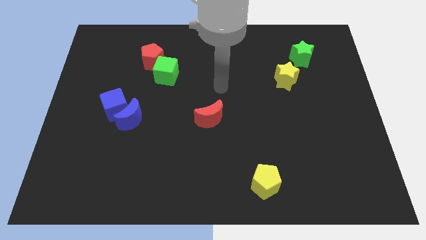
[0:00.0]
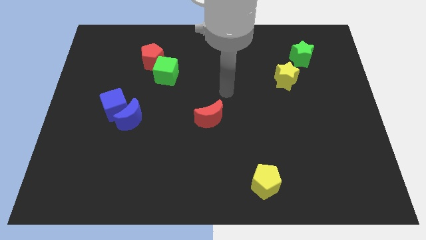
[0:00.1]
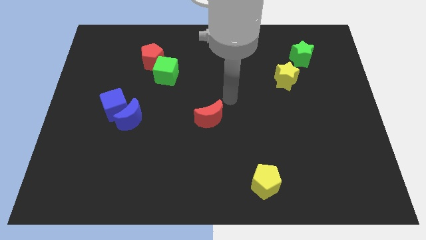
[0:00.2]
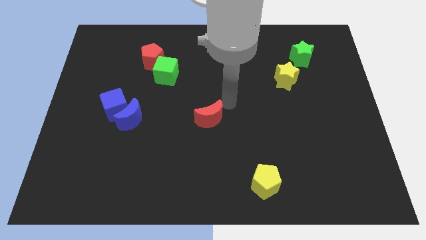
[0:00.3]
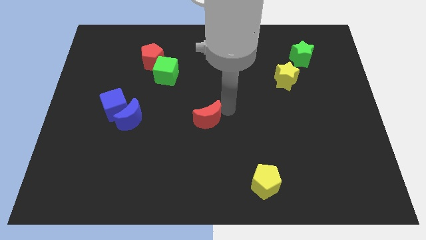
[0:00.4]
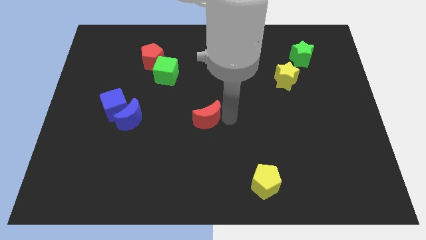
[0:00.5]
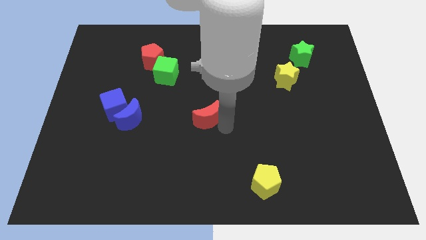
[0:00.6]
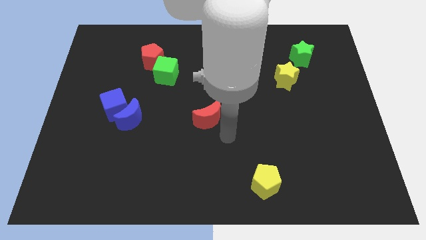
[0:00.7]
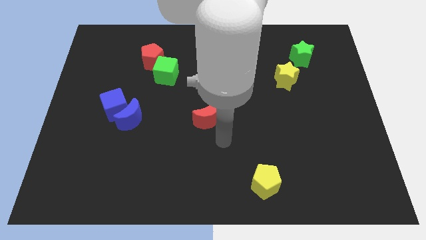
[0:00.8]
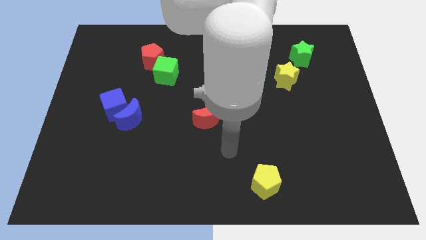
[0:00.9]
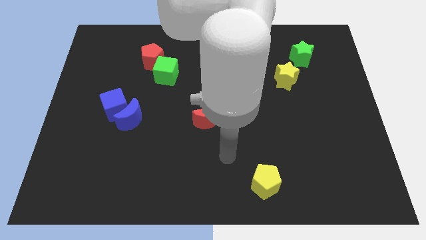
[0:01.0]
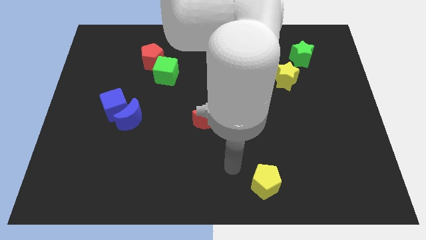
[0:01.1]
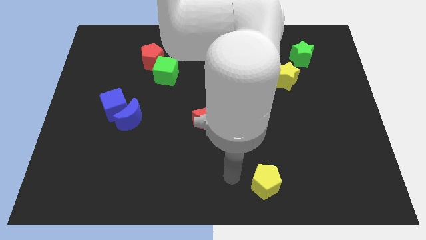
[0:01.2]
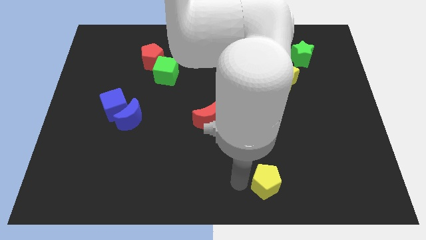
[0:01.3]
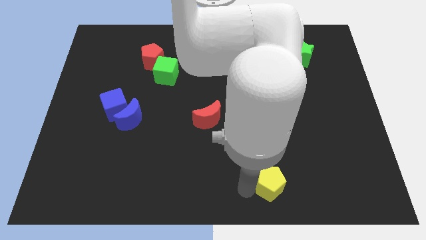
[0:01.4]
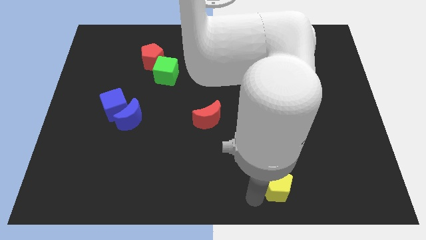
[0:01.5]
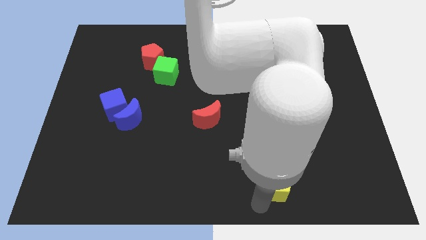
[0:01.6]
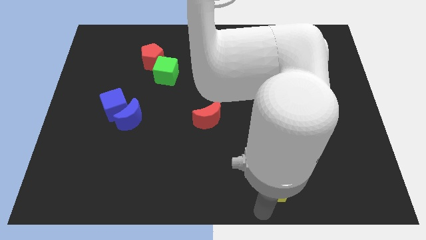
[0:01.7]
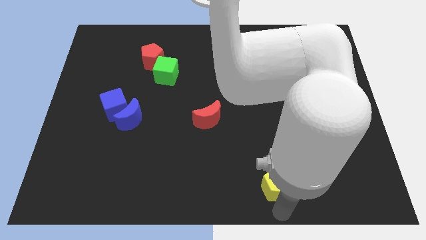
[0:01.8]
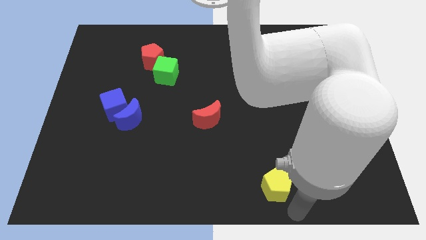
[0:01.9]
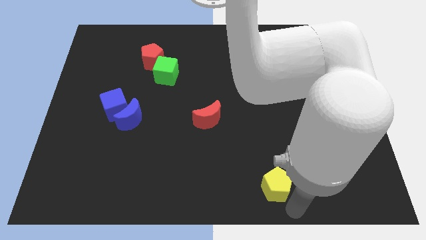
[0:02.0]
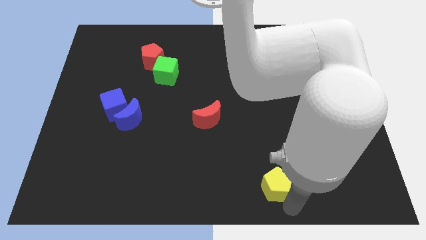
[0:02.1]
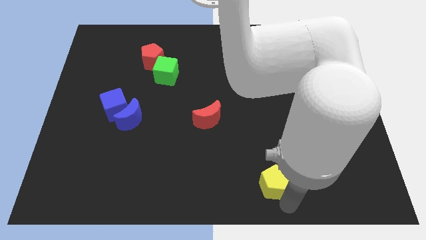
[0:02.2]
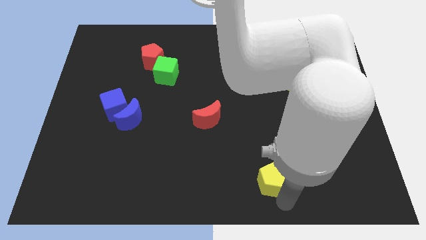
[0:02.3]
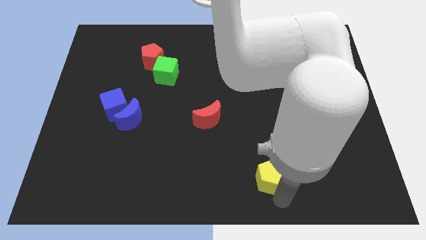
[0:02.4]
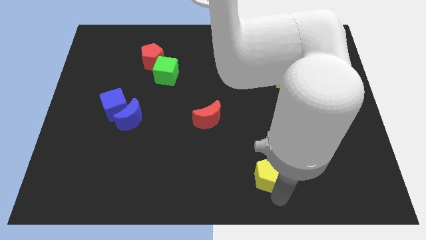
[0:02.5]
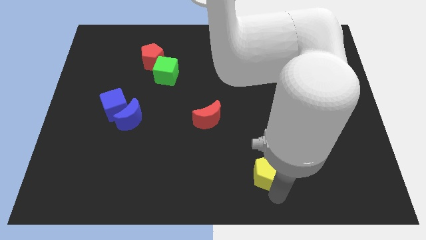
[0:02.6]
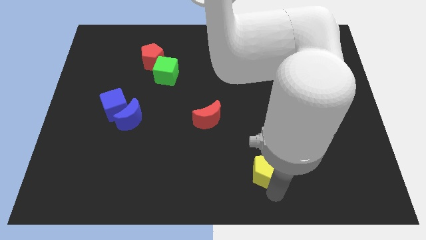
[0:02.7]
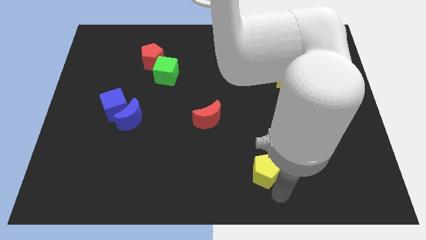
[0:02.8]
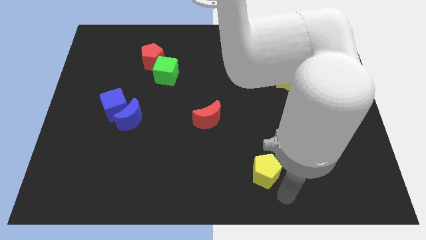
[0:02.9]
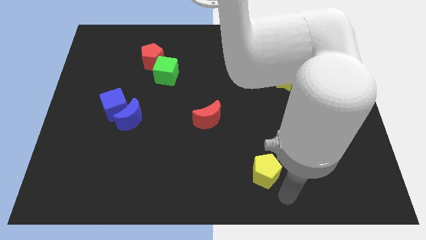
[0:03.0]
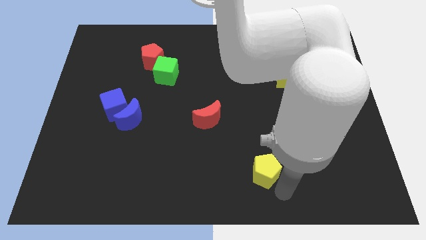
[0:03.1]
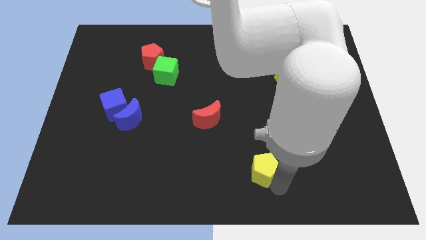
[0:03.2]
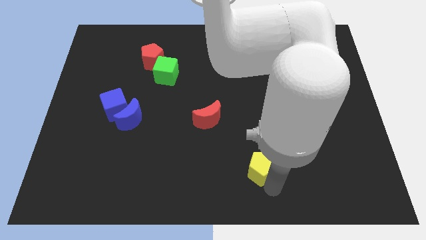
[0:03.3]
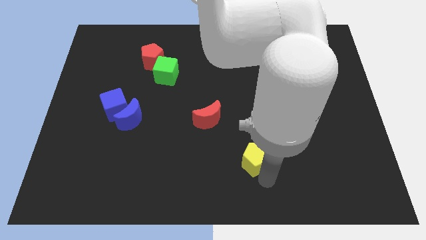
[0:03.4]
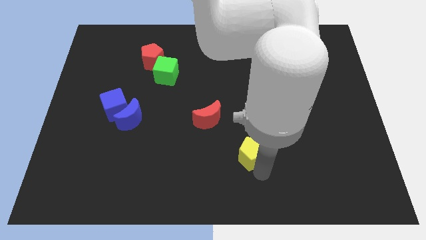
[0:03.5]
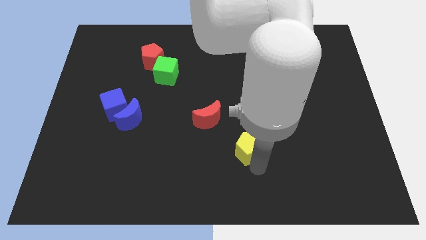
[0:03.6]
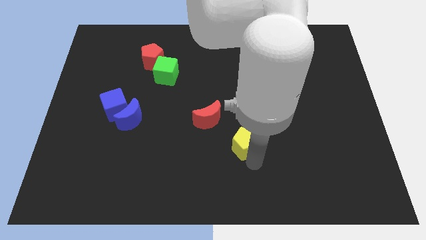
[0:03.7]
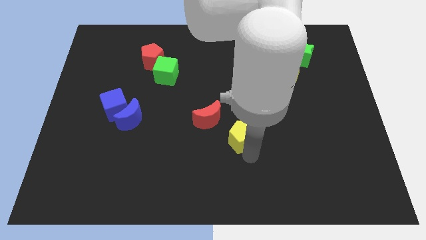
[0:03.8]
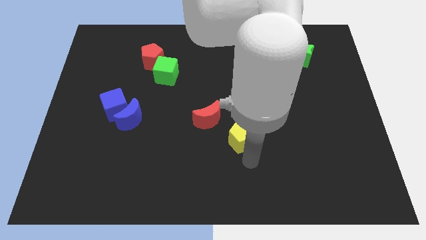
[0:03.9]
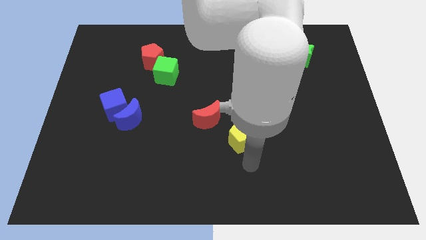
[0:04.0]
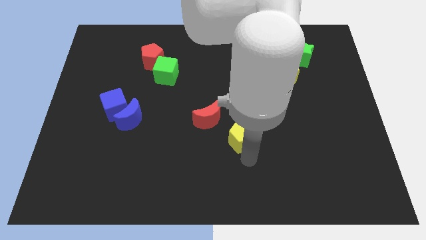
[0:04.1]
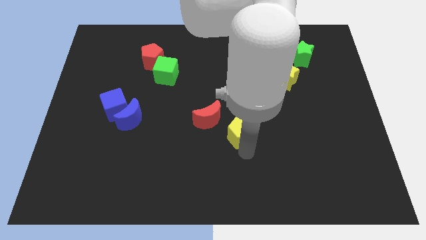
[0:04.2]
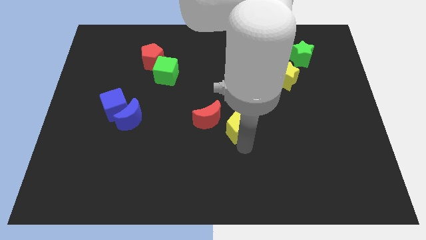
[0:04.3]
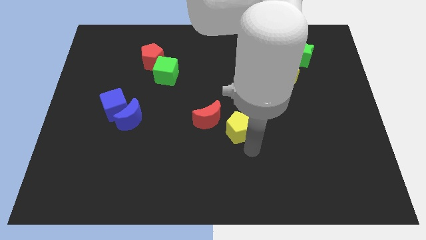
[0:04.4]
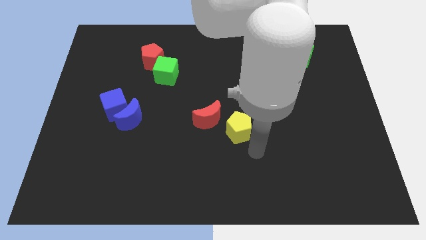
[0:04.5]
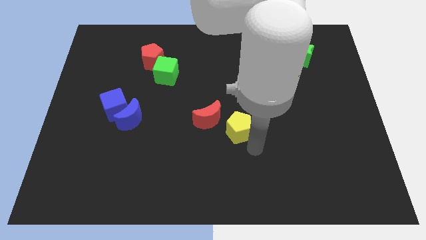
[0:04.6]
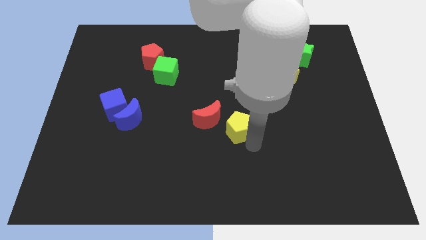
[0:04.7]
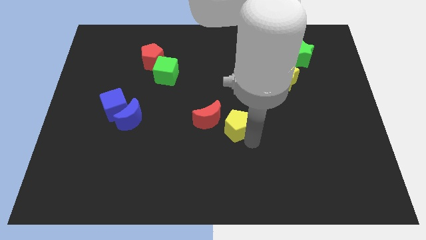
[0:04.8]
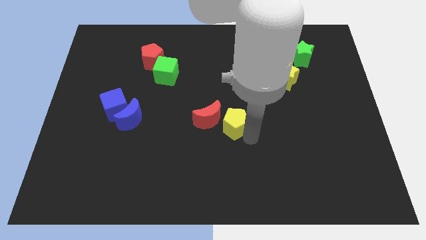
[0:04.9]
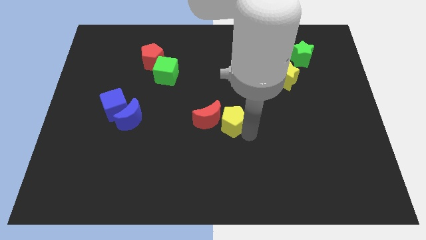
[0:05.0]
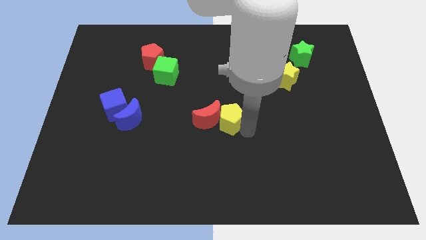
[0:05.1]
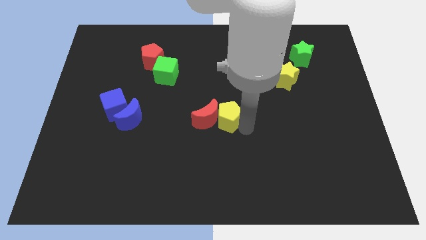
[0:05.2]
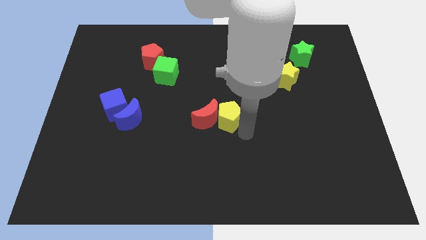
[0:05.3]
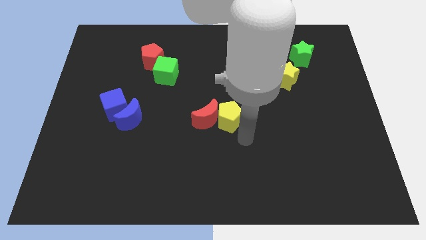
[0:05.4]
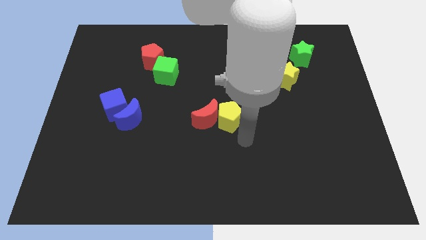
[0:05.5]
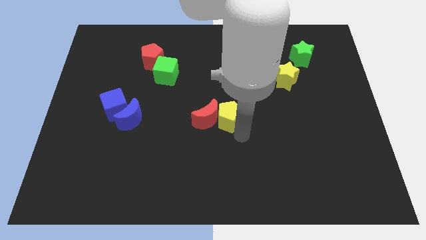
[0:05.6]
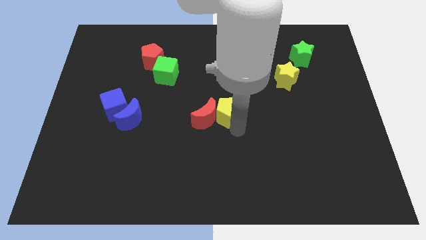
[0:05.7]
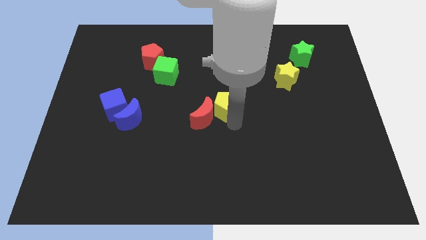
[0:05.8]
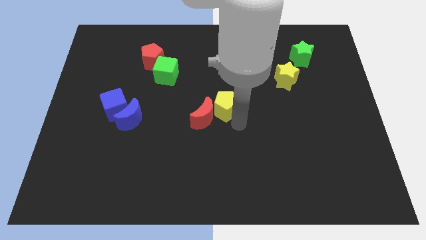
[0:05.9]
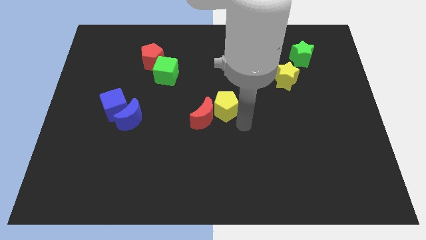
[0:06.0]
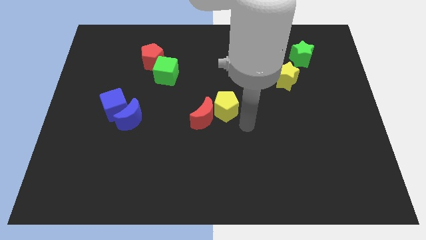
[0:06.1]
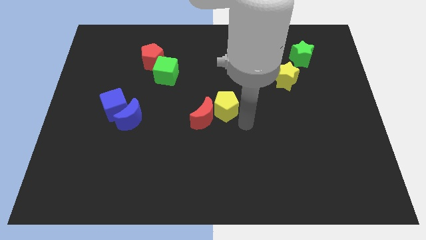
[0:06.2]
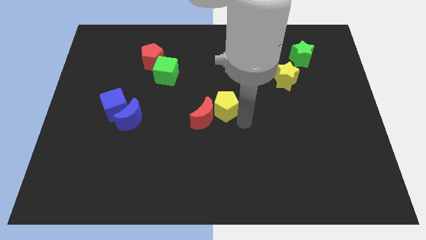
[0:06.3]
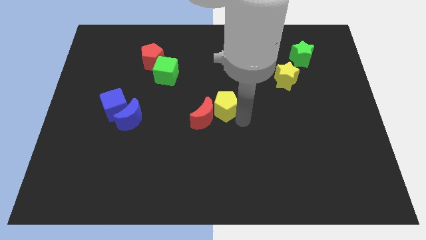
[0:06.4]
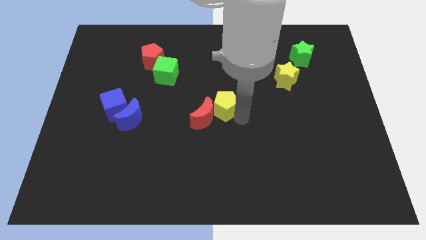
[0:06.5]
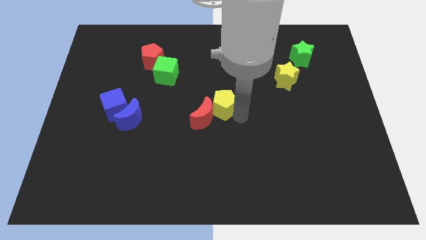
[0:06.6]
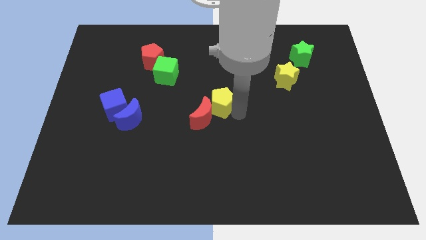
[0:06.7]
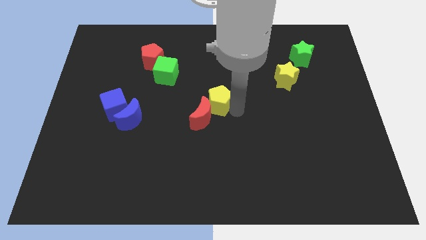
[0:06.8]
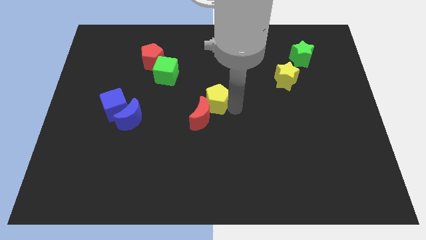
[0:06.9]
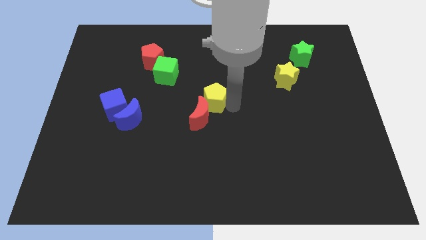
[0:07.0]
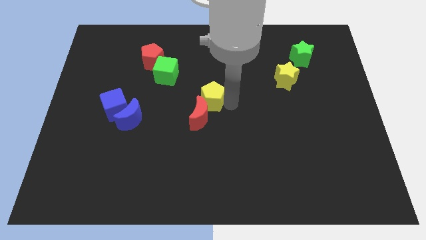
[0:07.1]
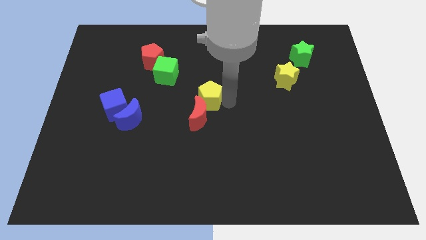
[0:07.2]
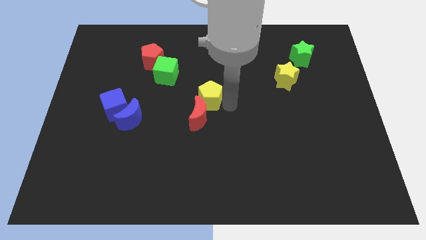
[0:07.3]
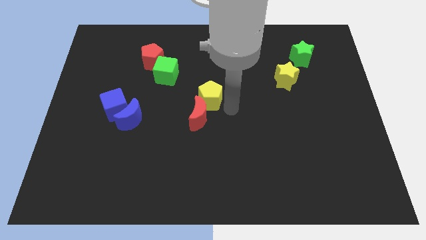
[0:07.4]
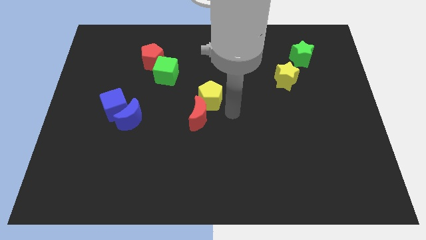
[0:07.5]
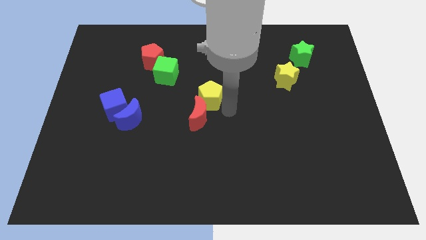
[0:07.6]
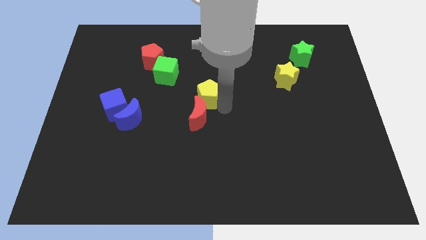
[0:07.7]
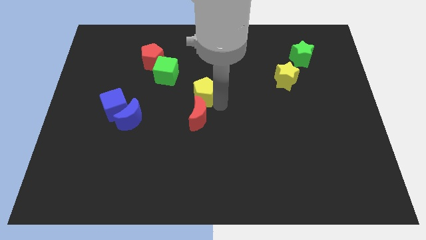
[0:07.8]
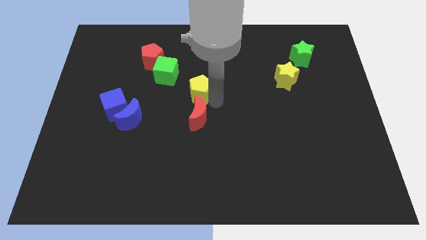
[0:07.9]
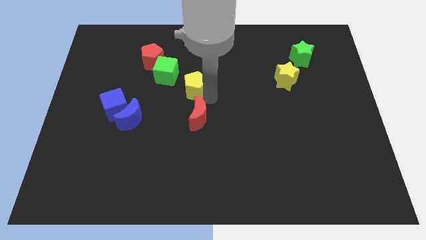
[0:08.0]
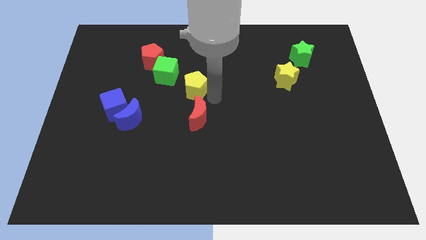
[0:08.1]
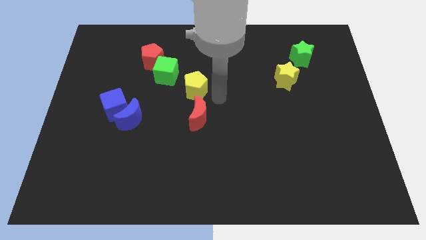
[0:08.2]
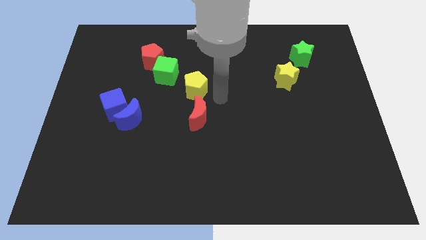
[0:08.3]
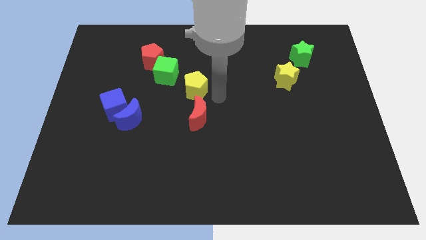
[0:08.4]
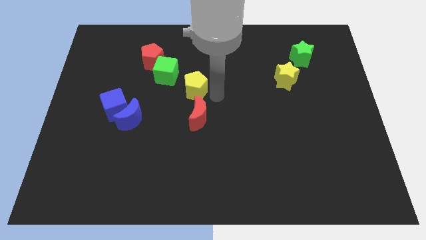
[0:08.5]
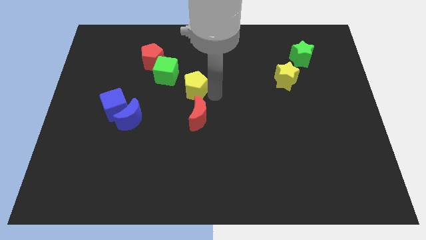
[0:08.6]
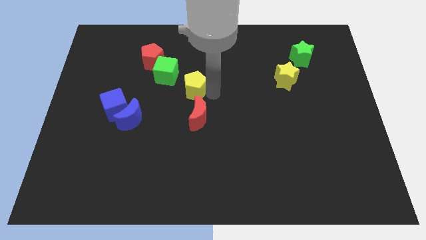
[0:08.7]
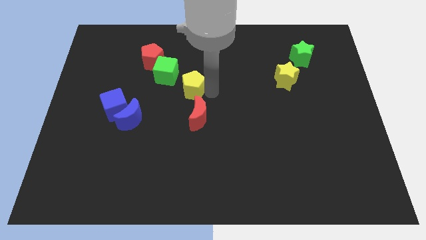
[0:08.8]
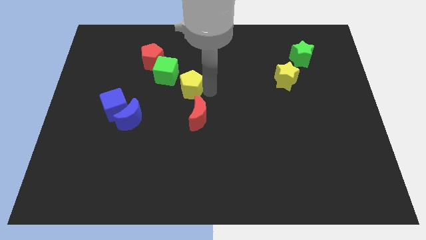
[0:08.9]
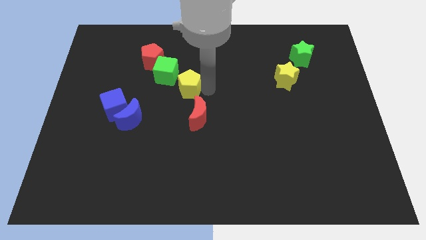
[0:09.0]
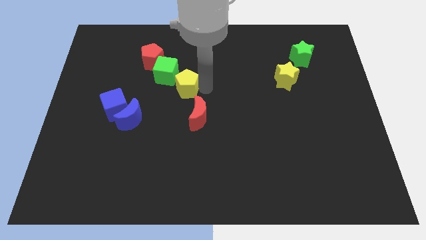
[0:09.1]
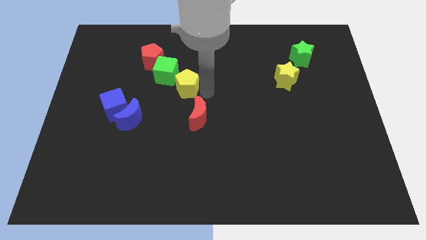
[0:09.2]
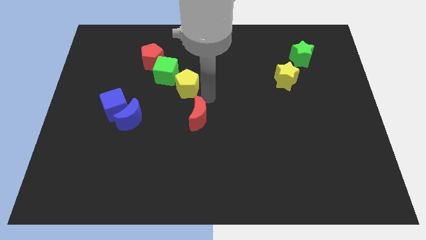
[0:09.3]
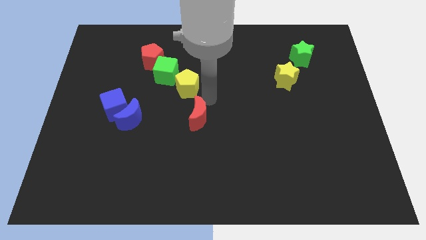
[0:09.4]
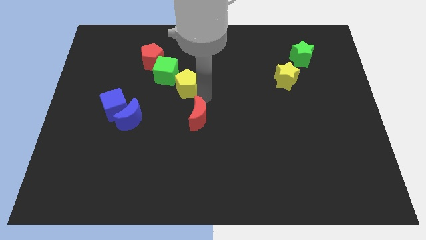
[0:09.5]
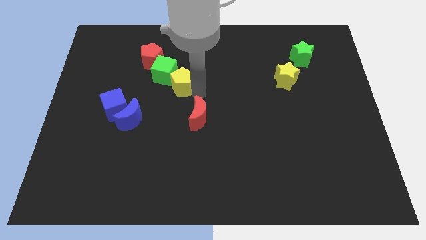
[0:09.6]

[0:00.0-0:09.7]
put the yellow pentagon next to the green cube
